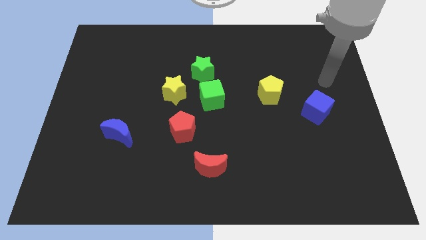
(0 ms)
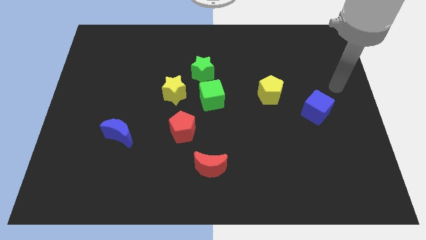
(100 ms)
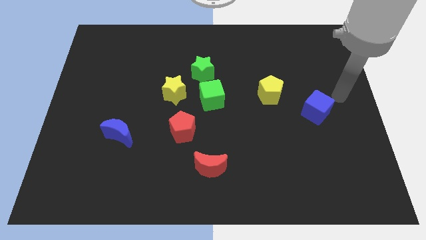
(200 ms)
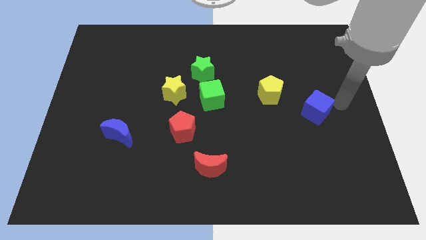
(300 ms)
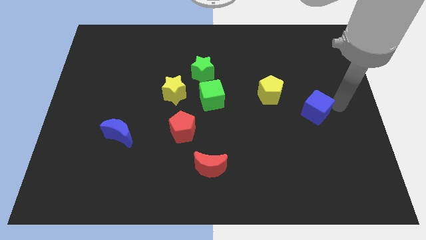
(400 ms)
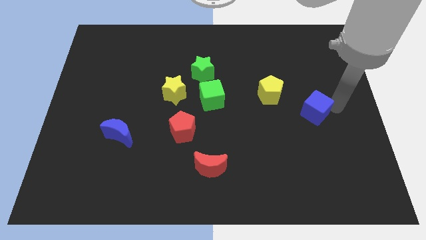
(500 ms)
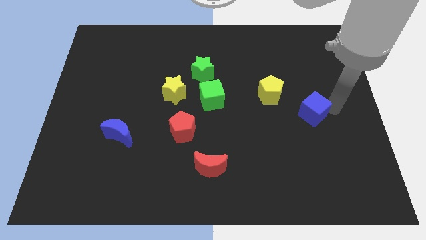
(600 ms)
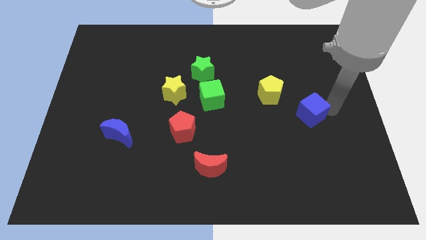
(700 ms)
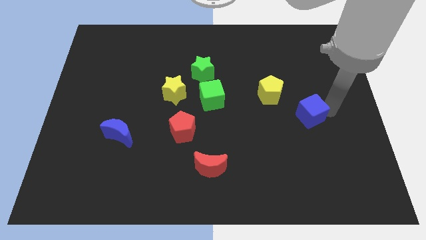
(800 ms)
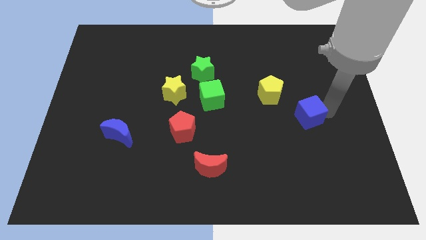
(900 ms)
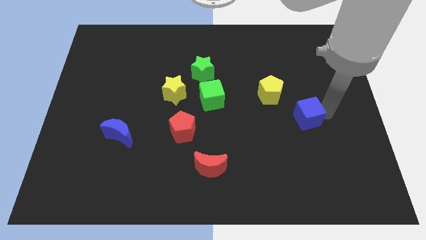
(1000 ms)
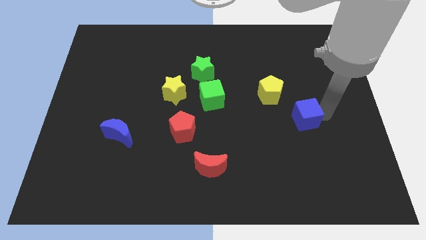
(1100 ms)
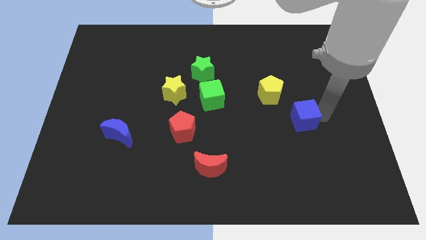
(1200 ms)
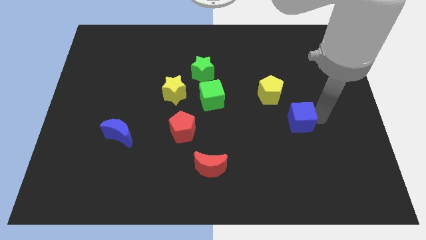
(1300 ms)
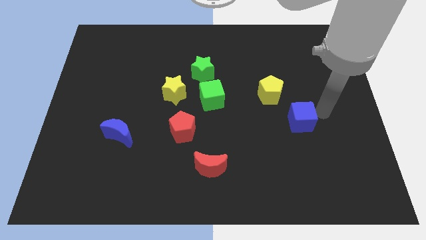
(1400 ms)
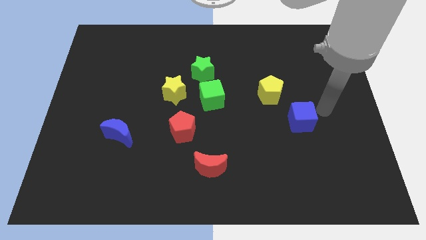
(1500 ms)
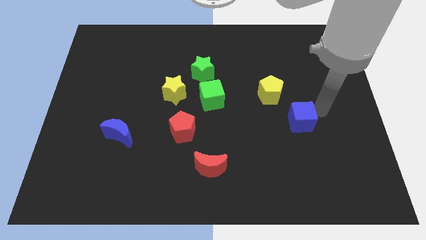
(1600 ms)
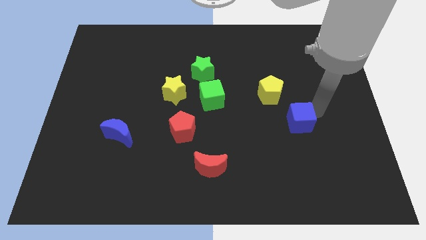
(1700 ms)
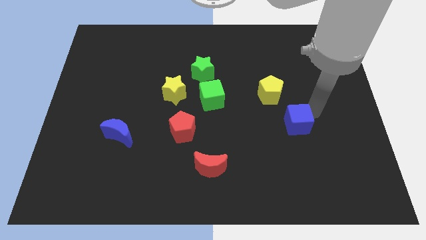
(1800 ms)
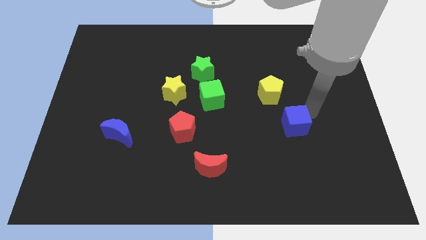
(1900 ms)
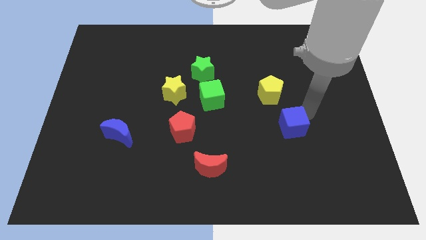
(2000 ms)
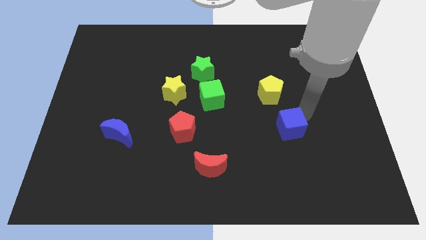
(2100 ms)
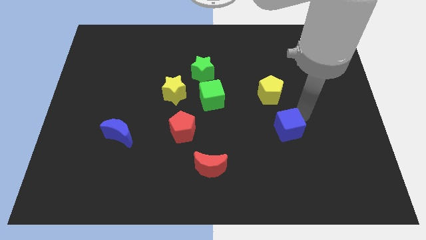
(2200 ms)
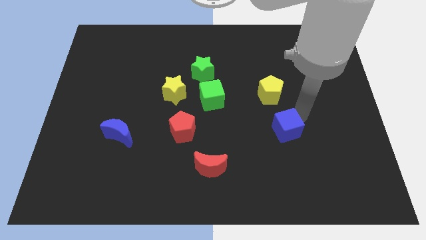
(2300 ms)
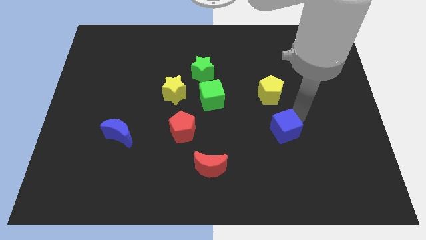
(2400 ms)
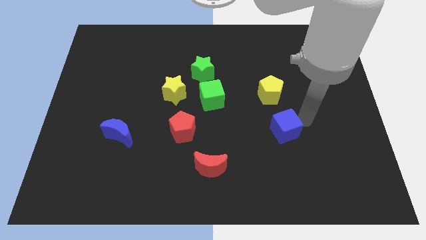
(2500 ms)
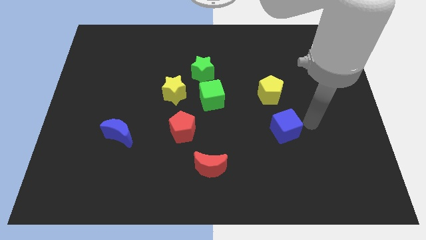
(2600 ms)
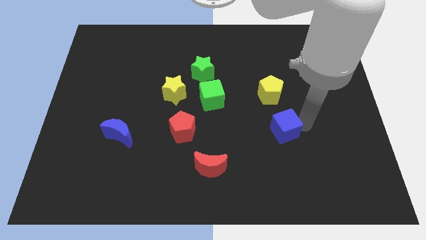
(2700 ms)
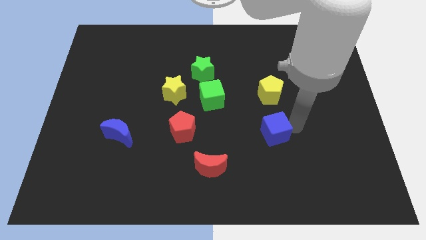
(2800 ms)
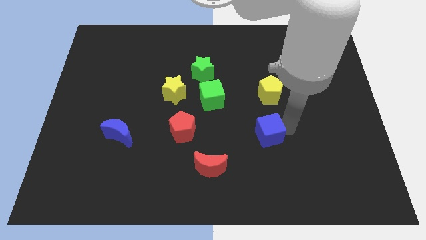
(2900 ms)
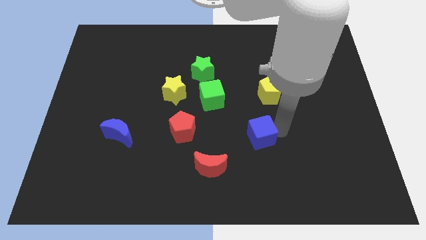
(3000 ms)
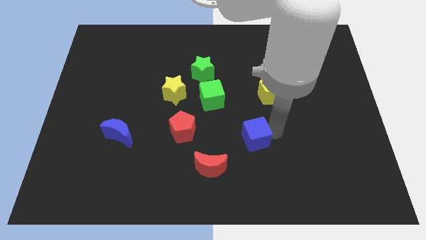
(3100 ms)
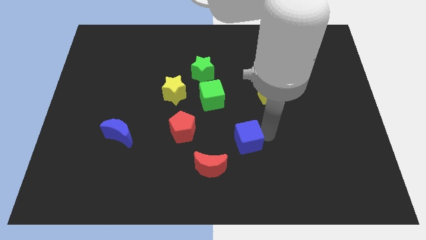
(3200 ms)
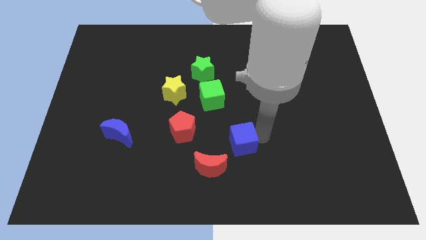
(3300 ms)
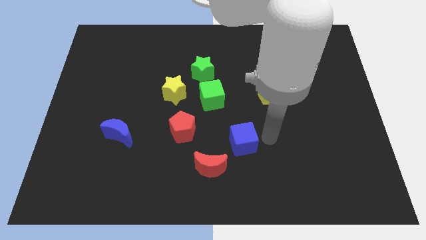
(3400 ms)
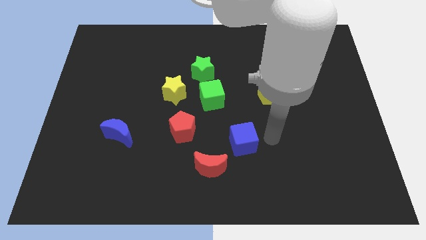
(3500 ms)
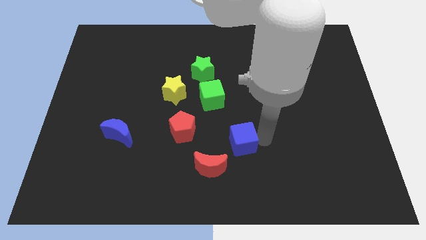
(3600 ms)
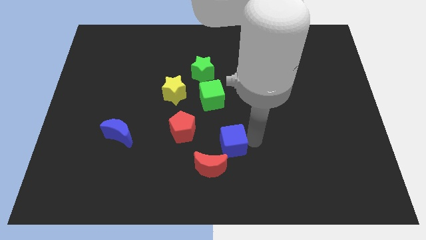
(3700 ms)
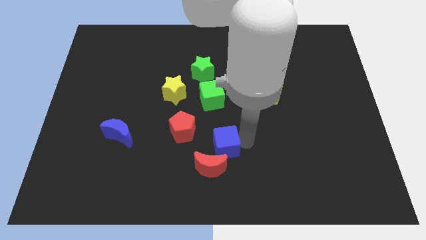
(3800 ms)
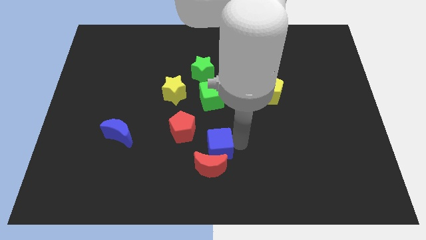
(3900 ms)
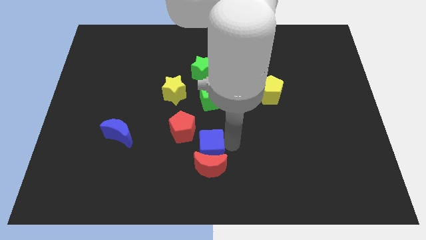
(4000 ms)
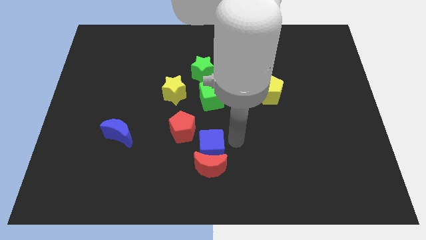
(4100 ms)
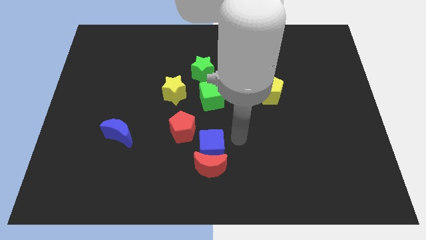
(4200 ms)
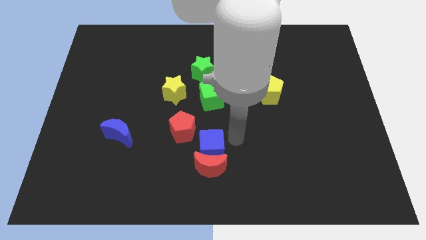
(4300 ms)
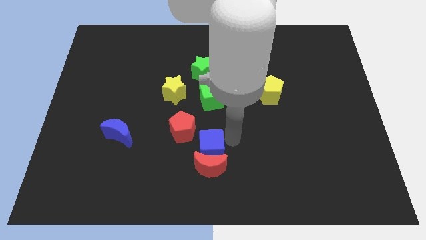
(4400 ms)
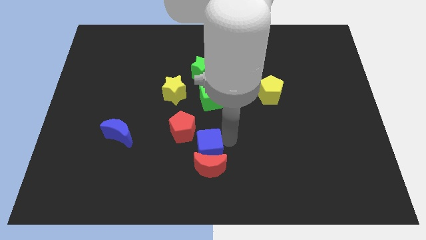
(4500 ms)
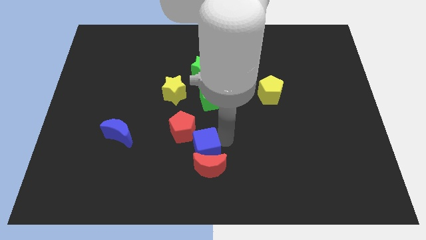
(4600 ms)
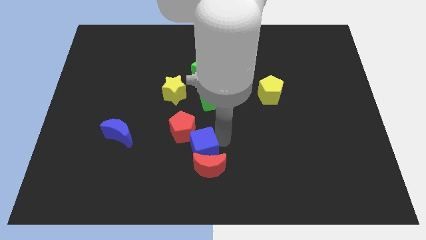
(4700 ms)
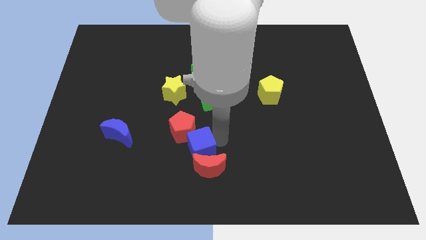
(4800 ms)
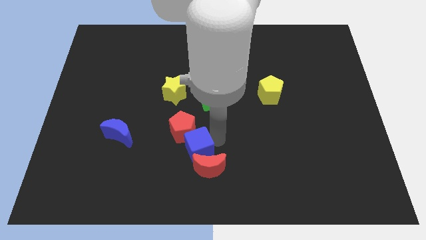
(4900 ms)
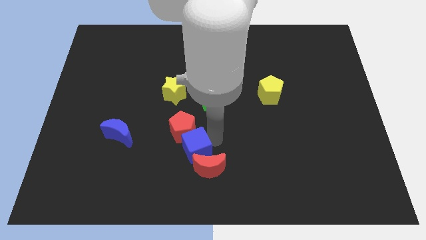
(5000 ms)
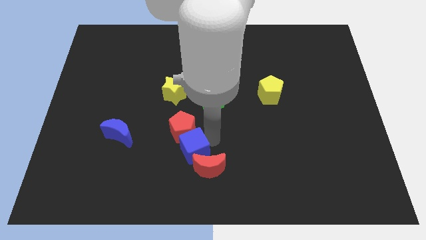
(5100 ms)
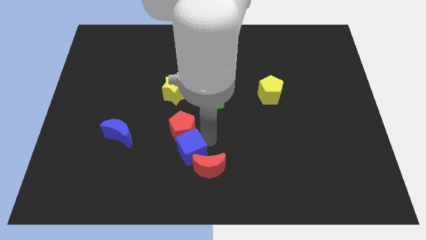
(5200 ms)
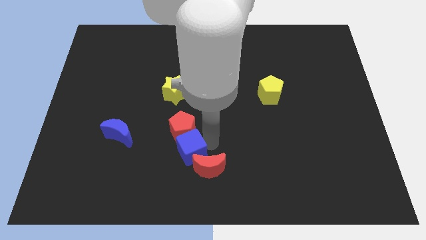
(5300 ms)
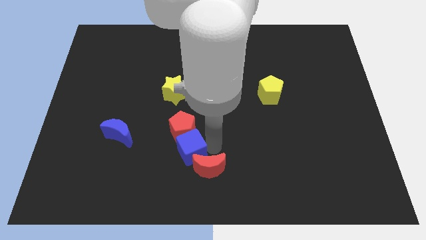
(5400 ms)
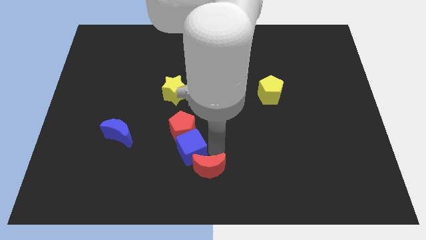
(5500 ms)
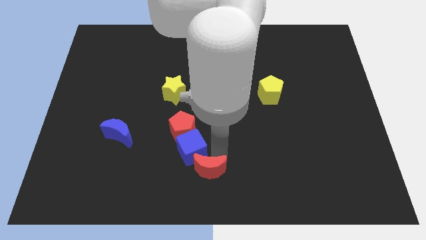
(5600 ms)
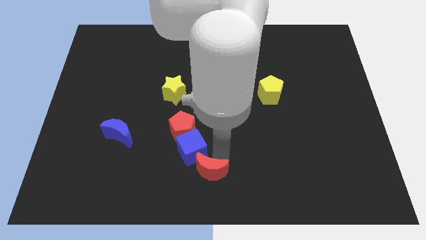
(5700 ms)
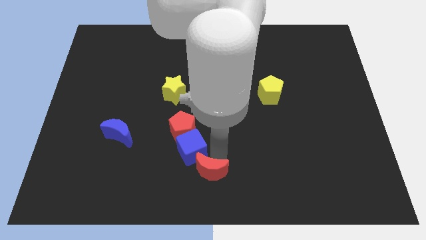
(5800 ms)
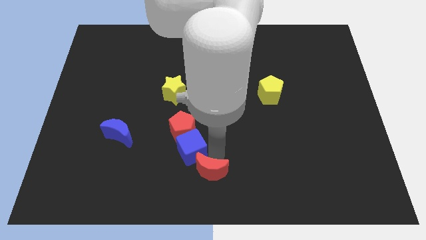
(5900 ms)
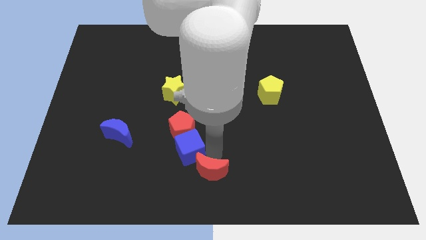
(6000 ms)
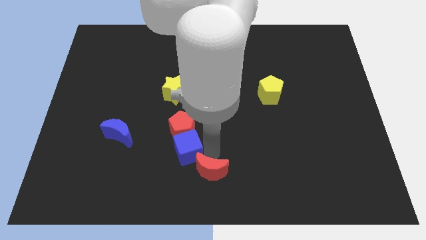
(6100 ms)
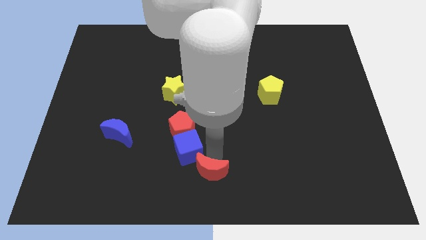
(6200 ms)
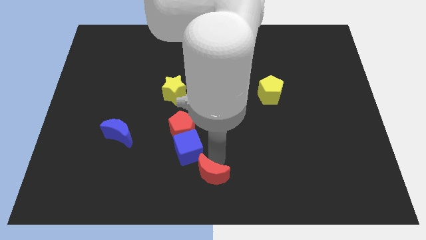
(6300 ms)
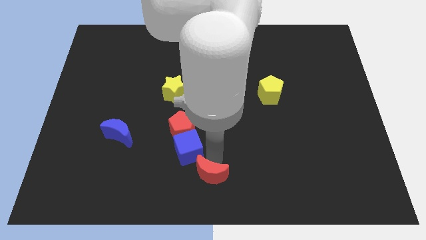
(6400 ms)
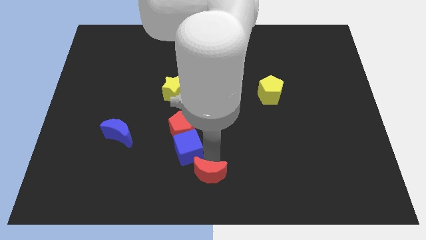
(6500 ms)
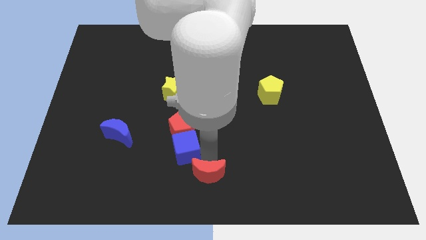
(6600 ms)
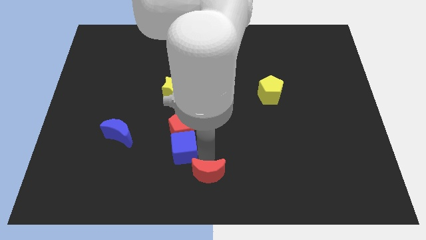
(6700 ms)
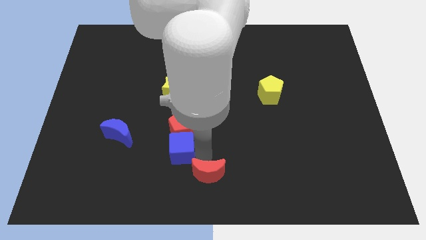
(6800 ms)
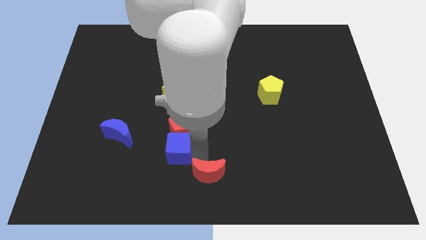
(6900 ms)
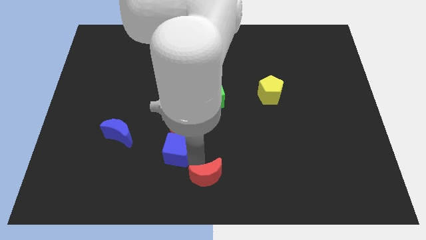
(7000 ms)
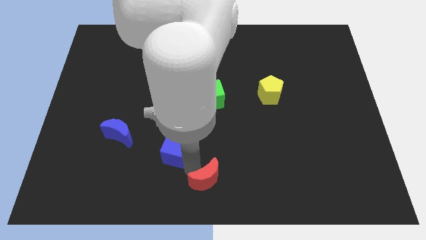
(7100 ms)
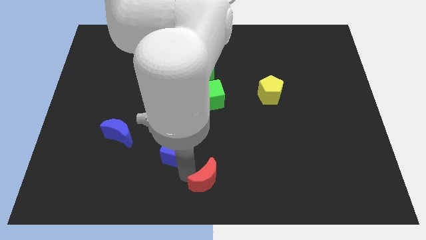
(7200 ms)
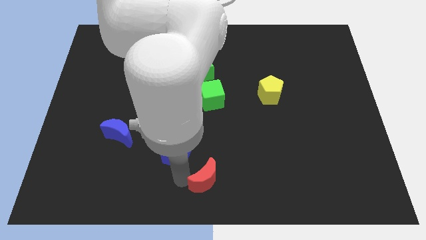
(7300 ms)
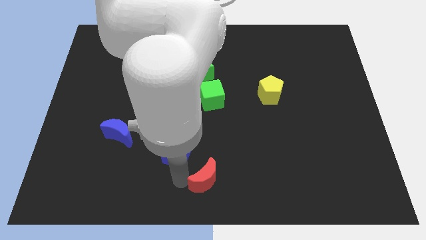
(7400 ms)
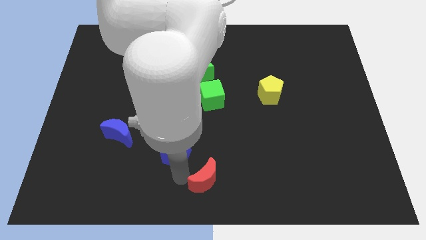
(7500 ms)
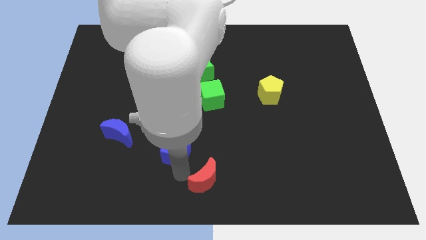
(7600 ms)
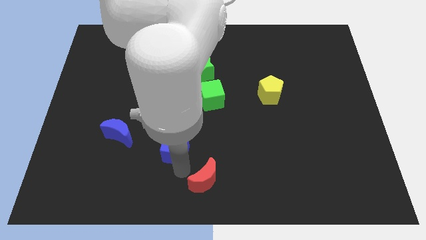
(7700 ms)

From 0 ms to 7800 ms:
push the blue cube below the yellow star

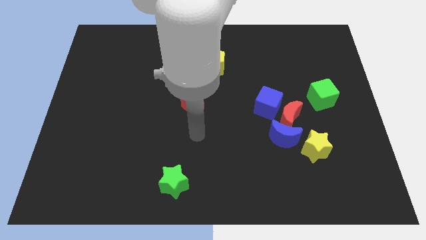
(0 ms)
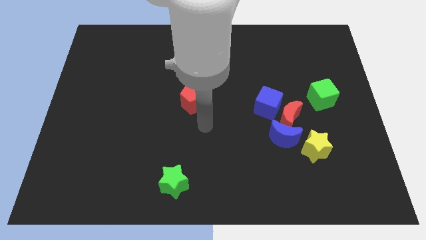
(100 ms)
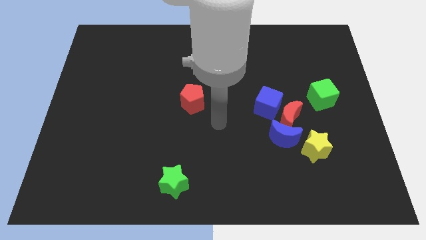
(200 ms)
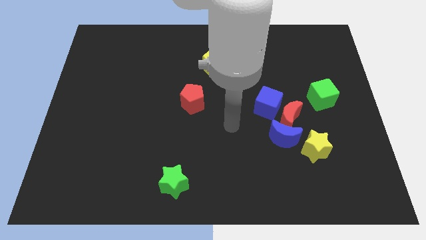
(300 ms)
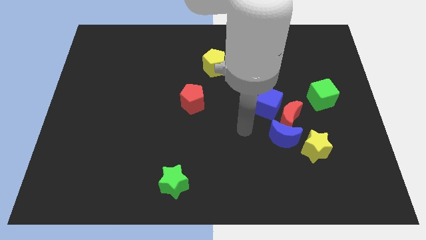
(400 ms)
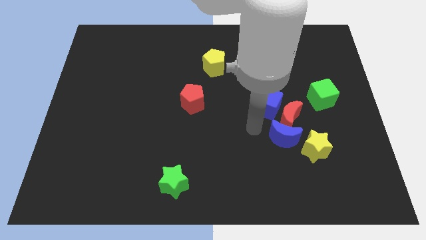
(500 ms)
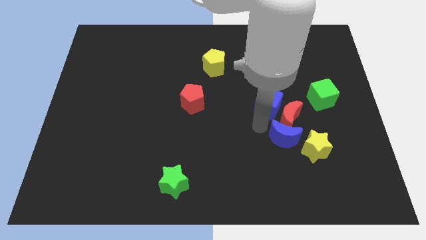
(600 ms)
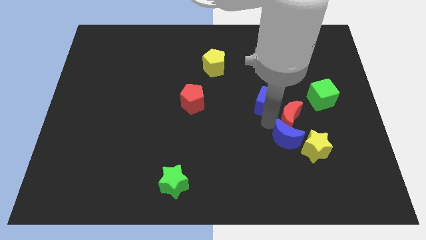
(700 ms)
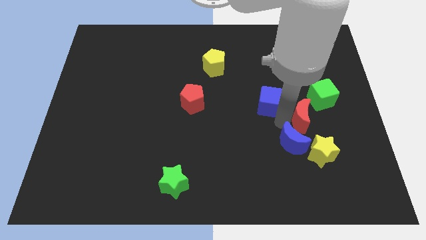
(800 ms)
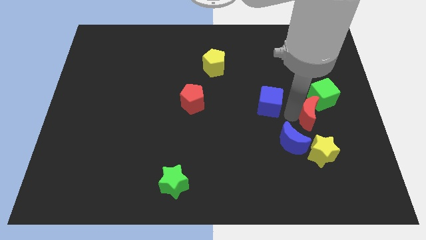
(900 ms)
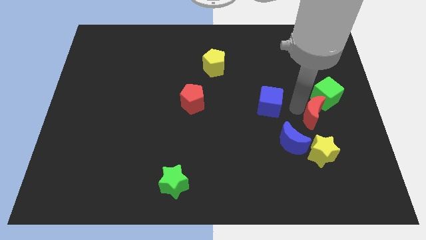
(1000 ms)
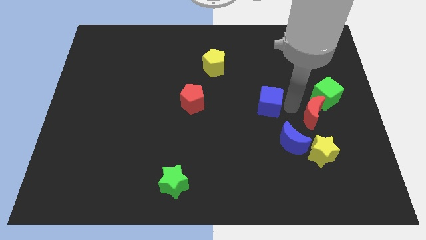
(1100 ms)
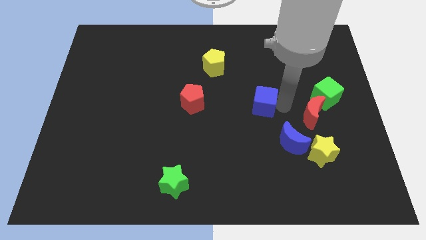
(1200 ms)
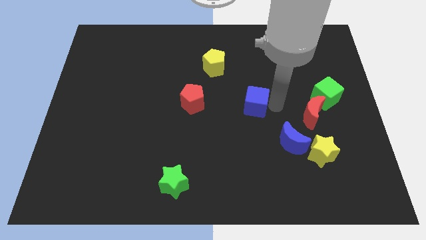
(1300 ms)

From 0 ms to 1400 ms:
slide the blue cube right of the red pentagon
